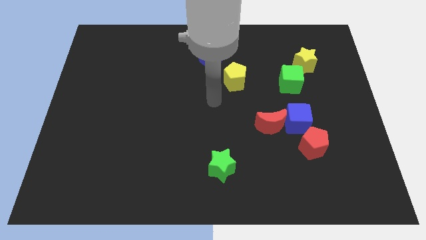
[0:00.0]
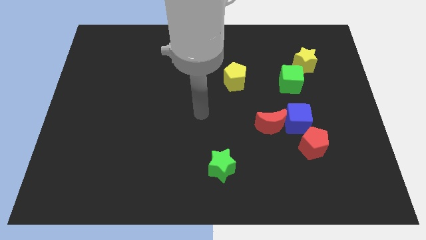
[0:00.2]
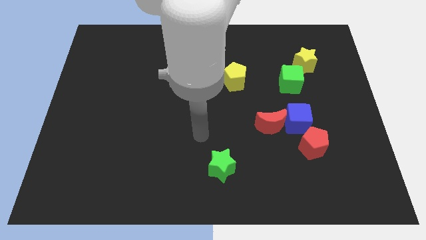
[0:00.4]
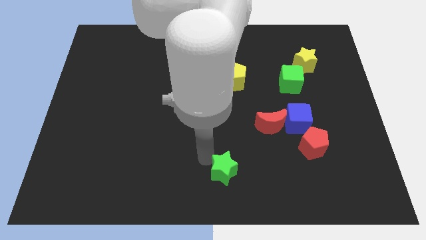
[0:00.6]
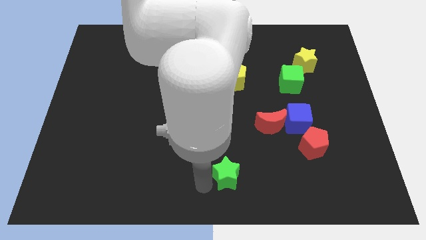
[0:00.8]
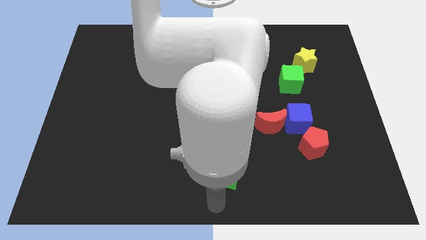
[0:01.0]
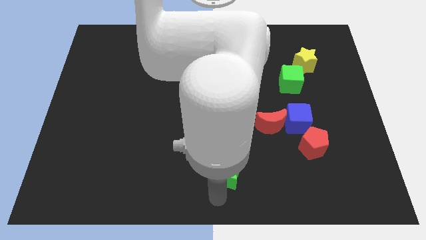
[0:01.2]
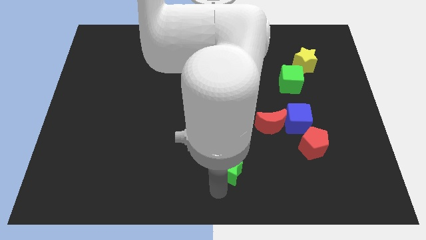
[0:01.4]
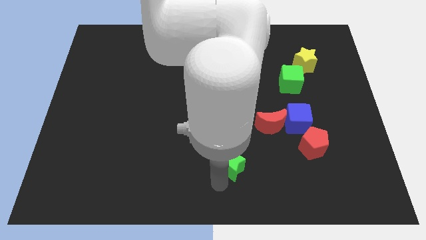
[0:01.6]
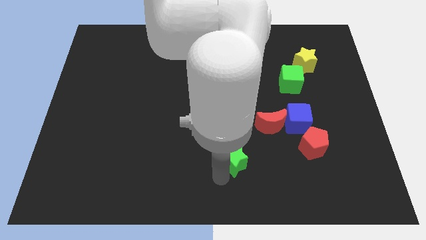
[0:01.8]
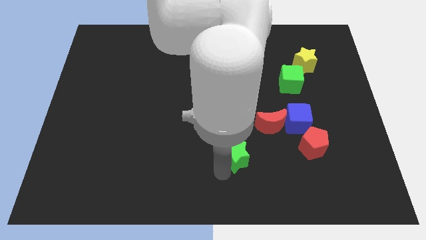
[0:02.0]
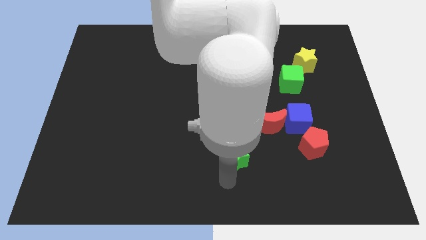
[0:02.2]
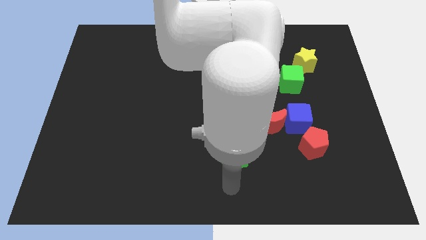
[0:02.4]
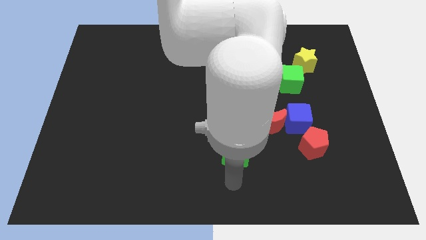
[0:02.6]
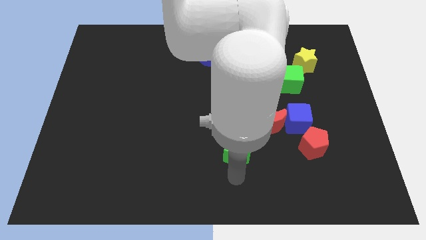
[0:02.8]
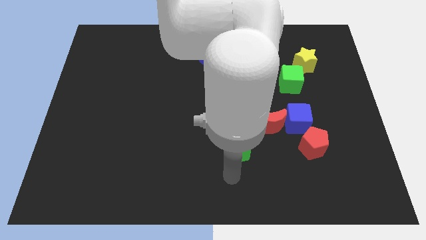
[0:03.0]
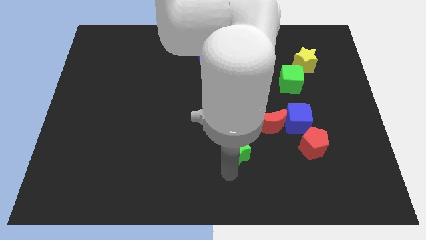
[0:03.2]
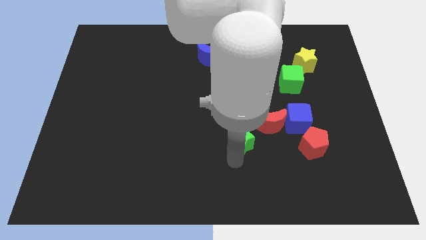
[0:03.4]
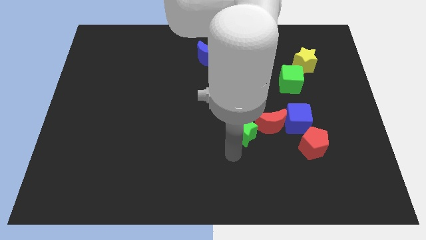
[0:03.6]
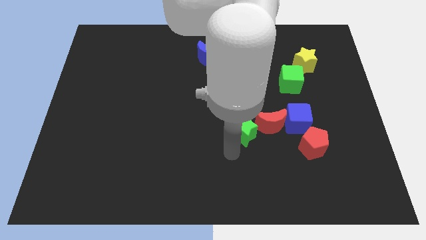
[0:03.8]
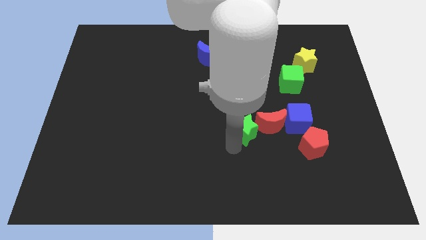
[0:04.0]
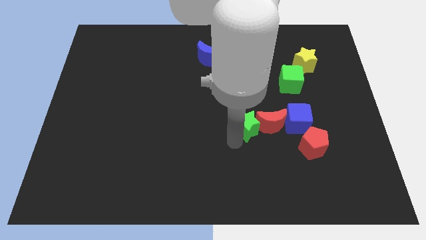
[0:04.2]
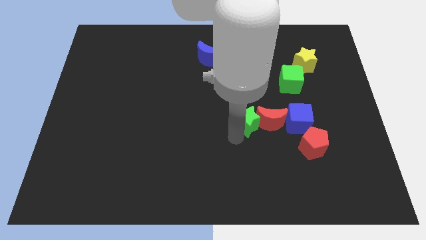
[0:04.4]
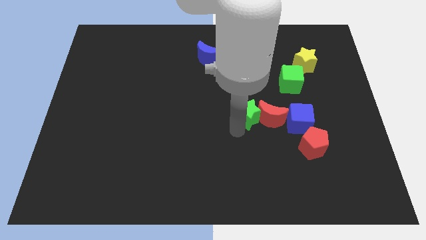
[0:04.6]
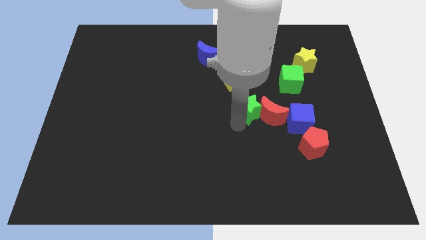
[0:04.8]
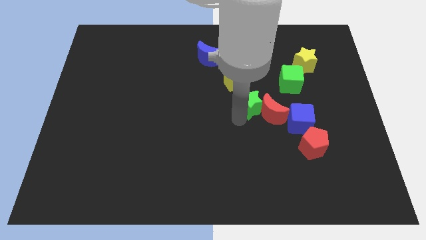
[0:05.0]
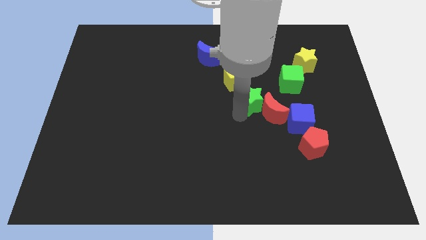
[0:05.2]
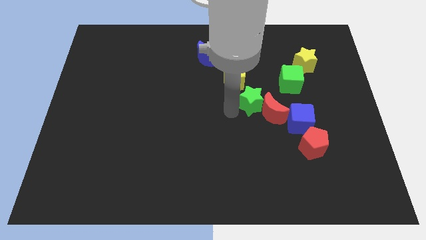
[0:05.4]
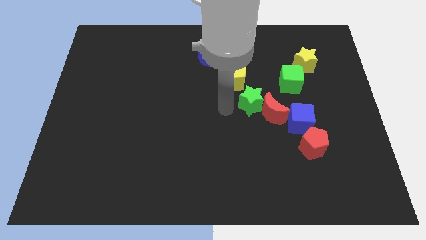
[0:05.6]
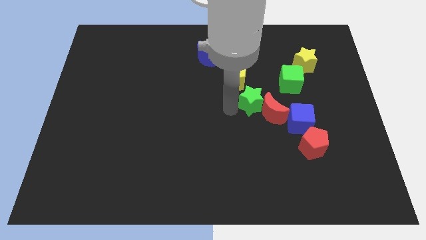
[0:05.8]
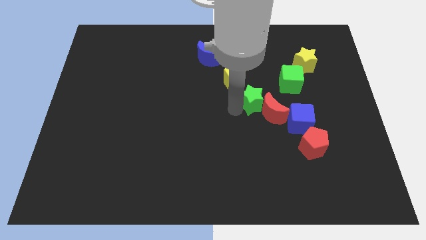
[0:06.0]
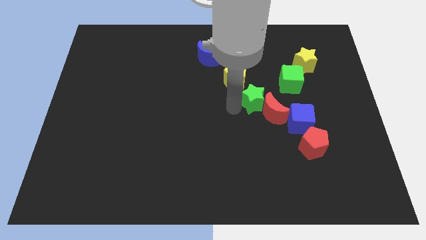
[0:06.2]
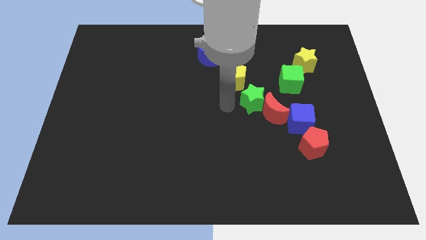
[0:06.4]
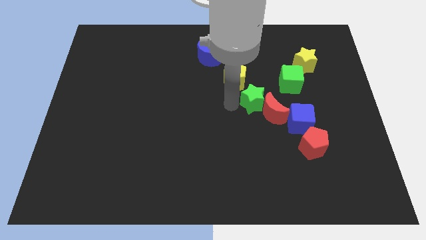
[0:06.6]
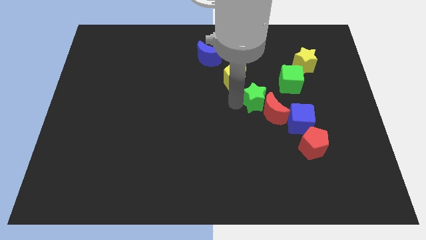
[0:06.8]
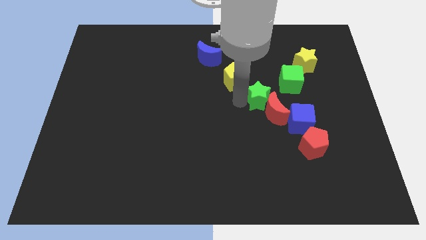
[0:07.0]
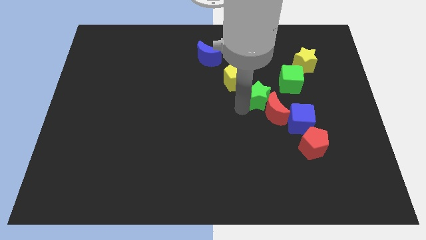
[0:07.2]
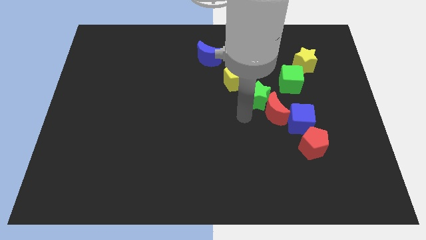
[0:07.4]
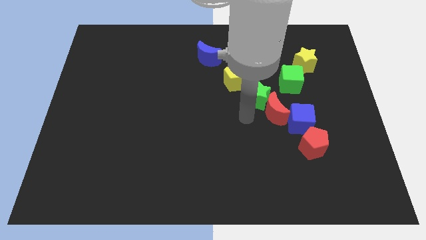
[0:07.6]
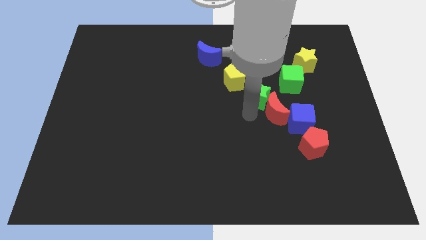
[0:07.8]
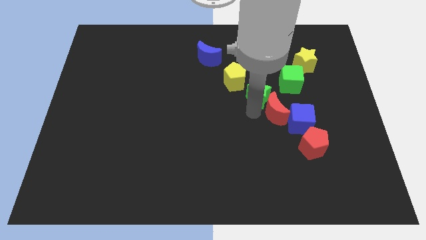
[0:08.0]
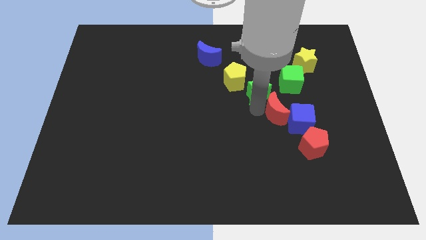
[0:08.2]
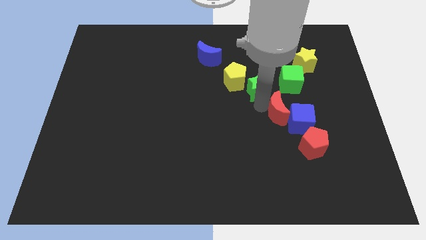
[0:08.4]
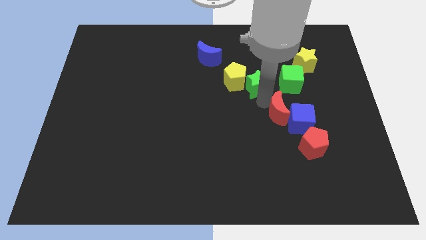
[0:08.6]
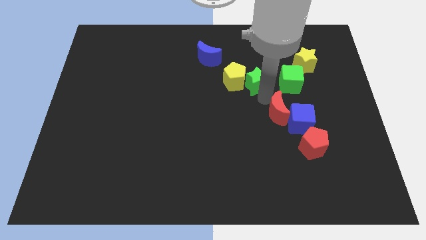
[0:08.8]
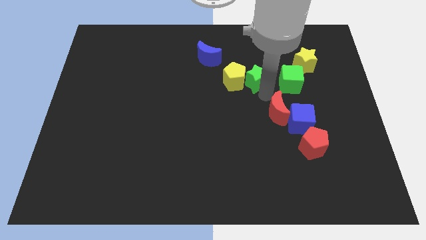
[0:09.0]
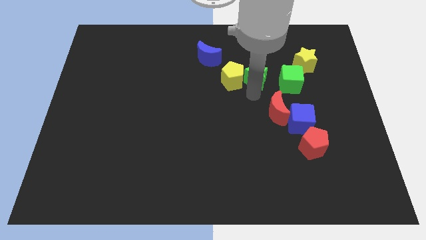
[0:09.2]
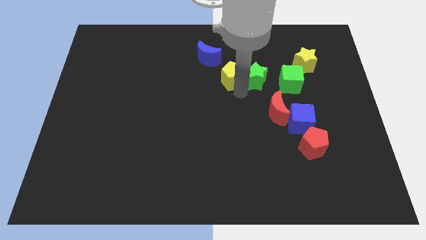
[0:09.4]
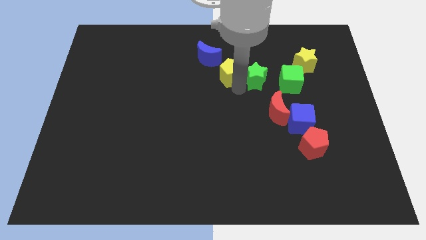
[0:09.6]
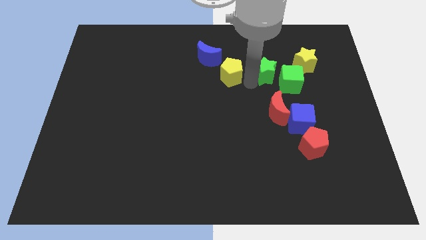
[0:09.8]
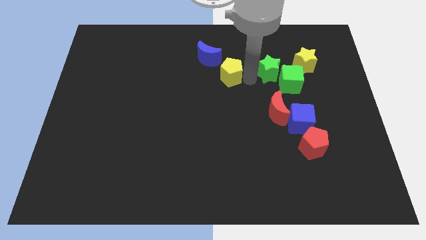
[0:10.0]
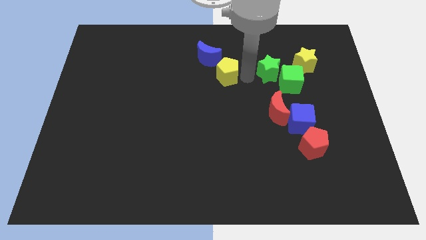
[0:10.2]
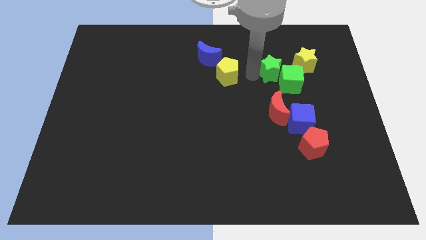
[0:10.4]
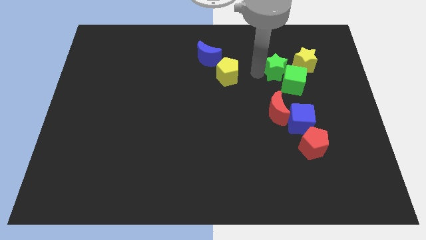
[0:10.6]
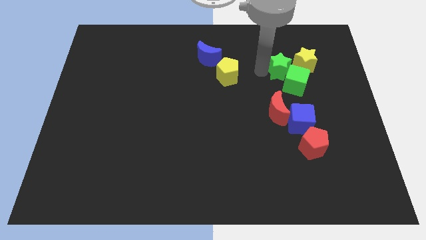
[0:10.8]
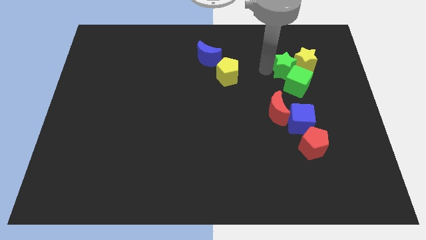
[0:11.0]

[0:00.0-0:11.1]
slide the green star close to the yellow star

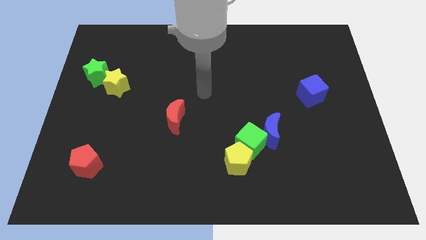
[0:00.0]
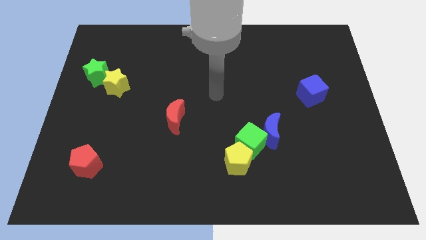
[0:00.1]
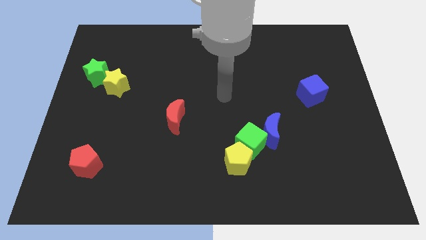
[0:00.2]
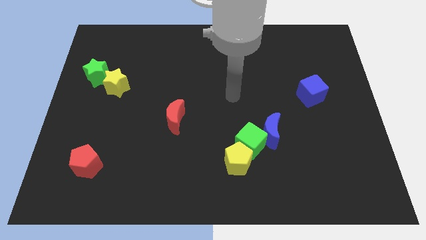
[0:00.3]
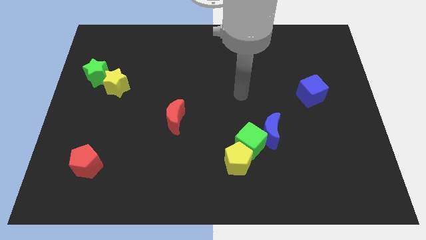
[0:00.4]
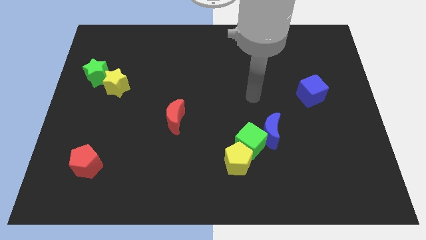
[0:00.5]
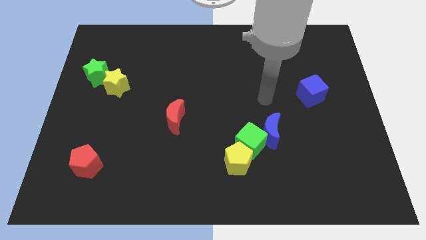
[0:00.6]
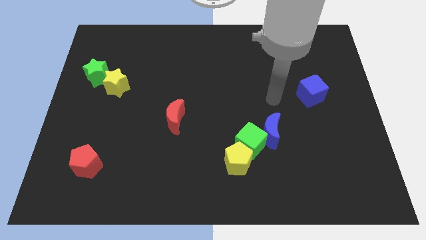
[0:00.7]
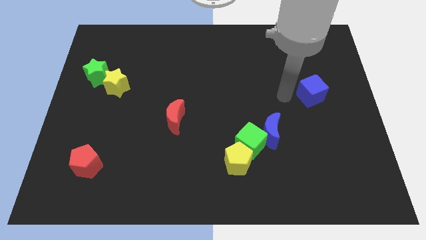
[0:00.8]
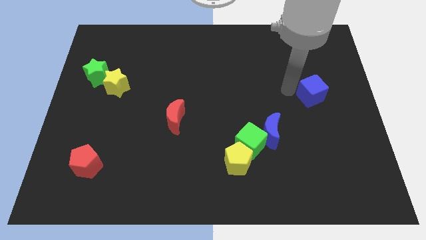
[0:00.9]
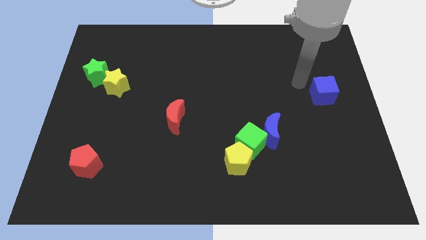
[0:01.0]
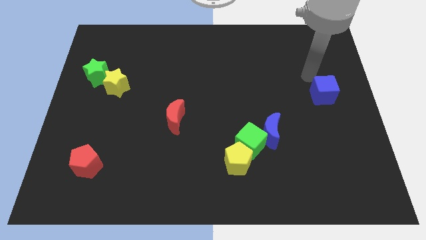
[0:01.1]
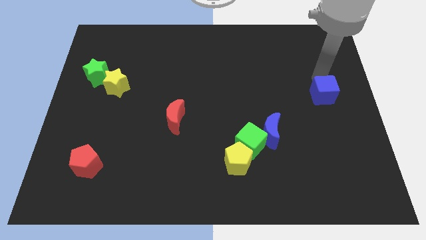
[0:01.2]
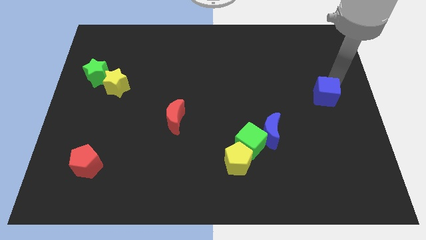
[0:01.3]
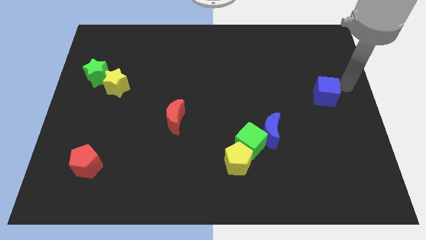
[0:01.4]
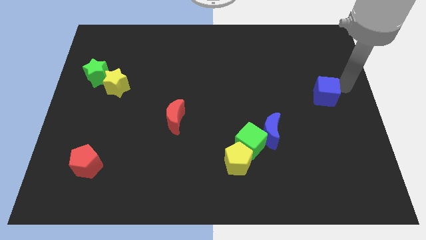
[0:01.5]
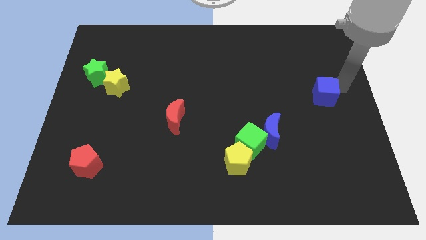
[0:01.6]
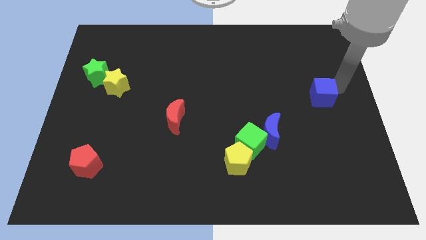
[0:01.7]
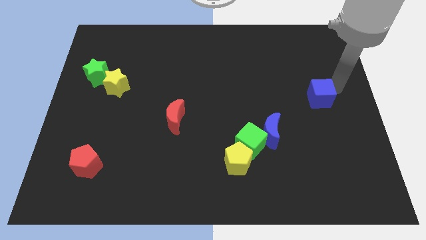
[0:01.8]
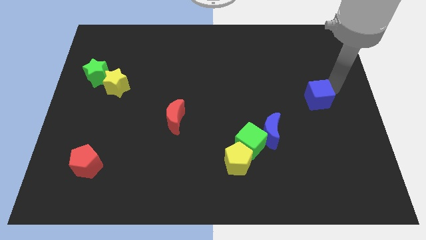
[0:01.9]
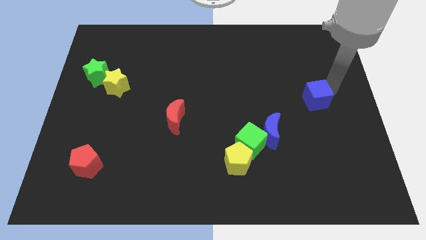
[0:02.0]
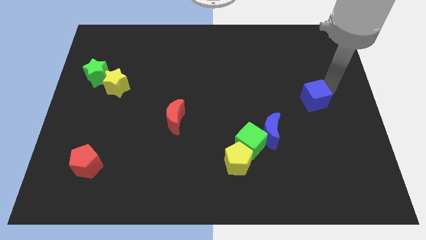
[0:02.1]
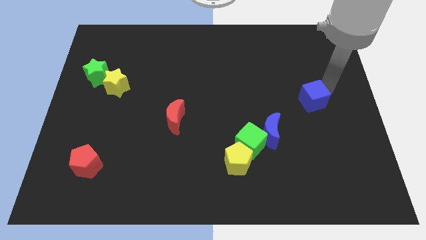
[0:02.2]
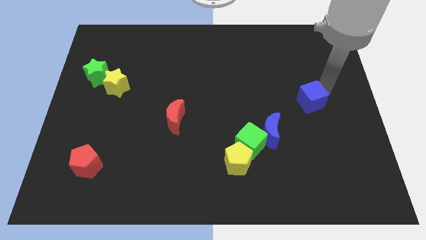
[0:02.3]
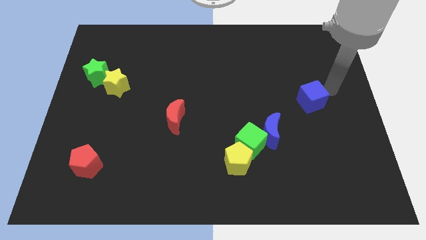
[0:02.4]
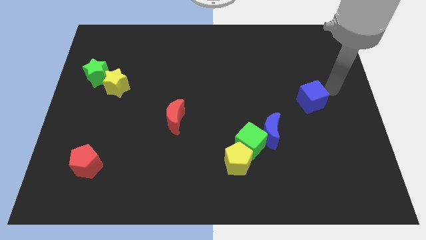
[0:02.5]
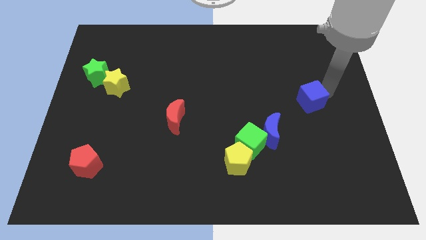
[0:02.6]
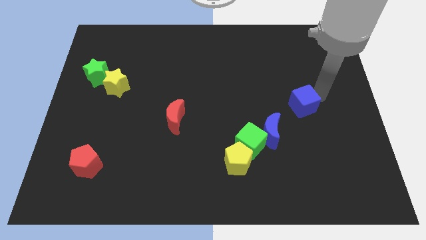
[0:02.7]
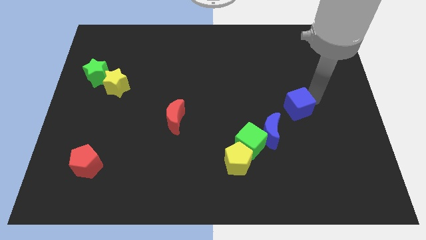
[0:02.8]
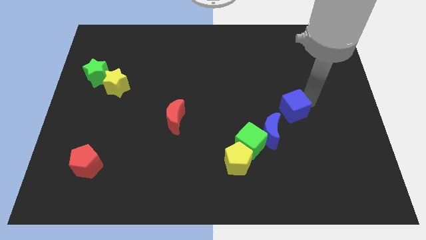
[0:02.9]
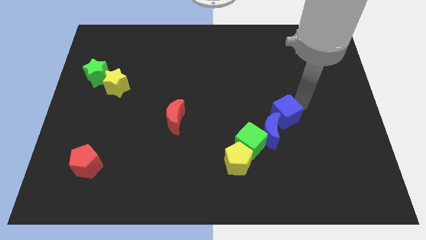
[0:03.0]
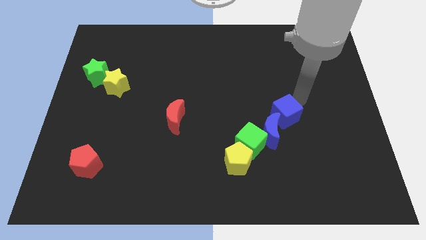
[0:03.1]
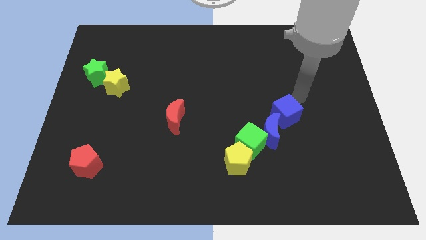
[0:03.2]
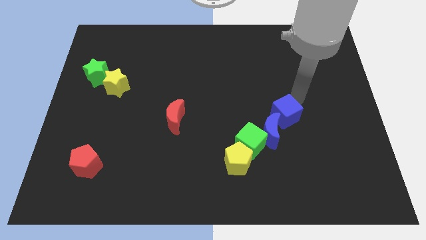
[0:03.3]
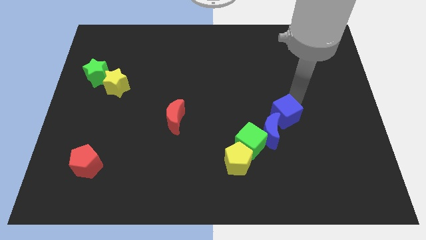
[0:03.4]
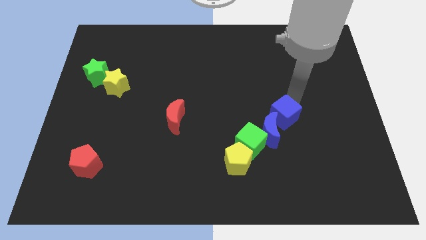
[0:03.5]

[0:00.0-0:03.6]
slide the blue cube close to the blue moon
